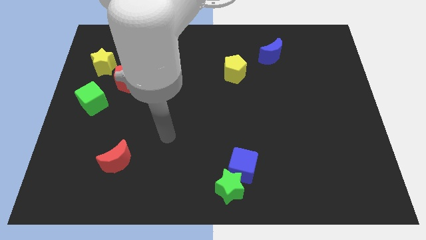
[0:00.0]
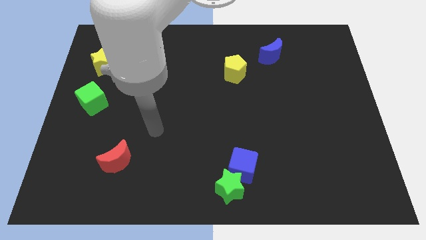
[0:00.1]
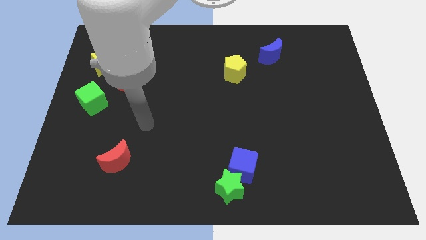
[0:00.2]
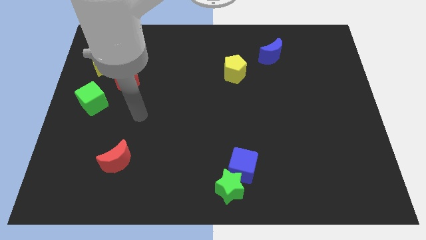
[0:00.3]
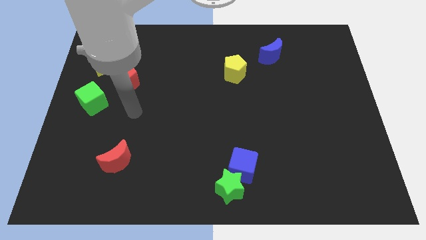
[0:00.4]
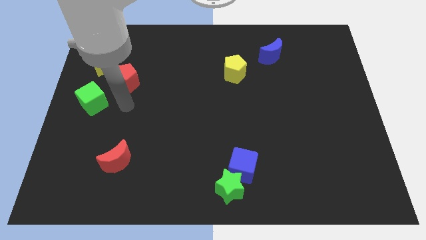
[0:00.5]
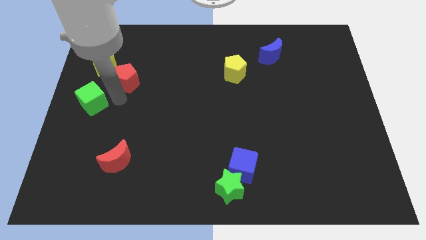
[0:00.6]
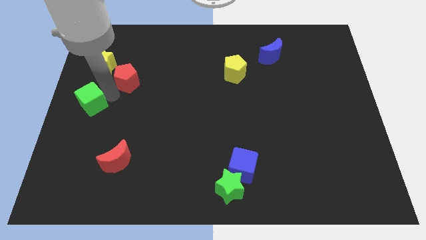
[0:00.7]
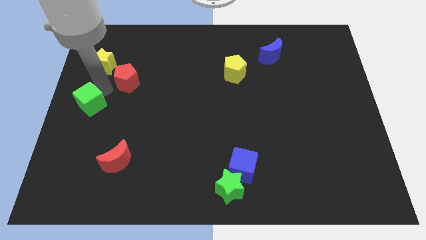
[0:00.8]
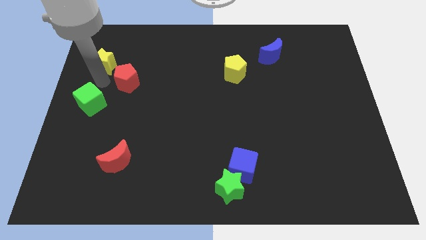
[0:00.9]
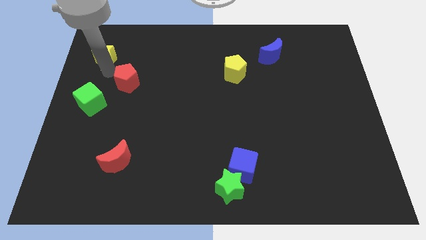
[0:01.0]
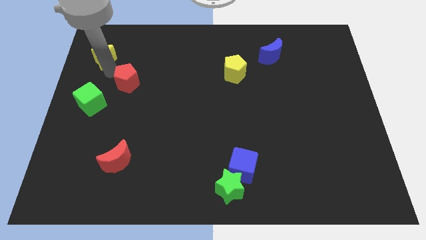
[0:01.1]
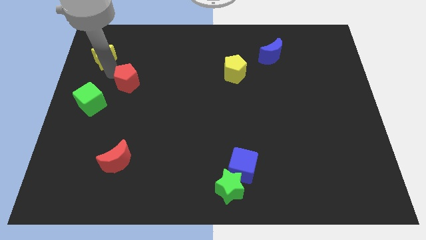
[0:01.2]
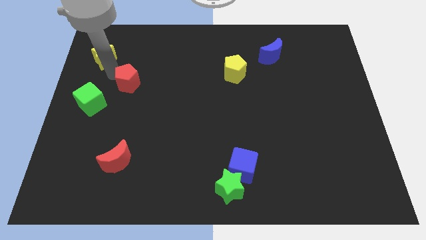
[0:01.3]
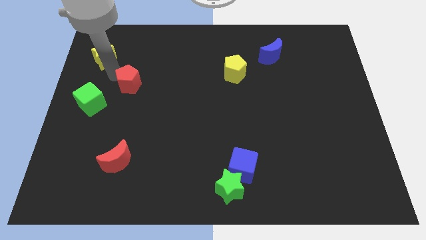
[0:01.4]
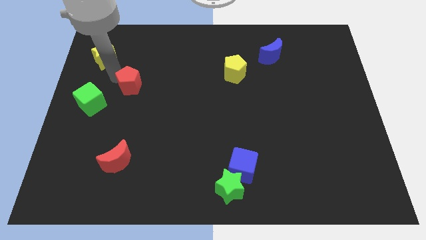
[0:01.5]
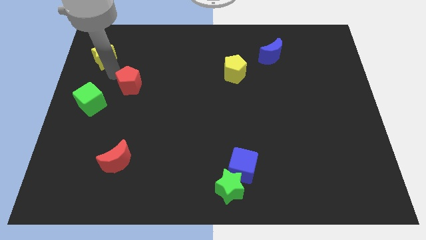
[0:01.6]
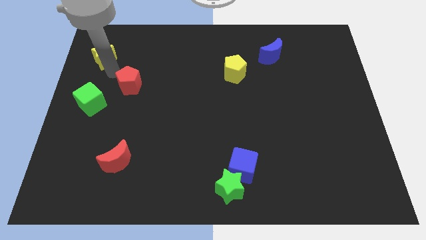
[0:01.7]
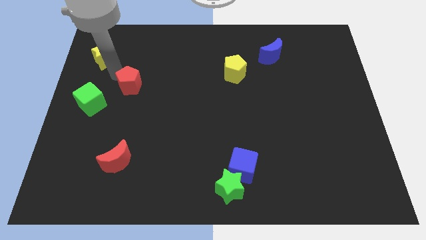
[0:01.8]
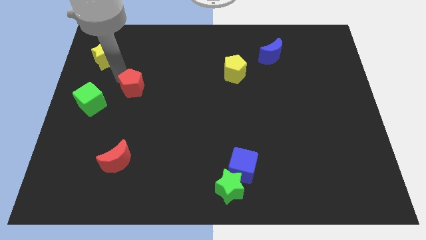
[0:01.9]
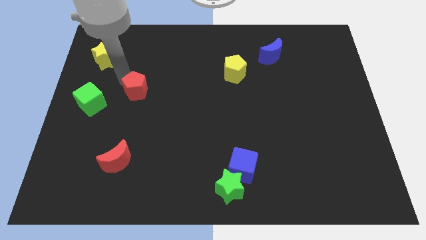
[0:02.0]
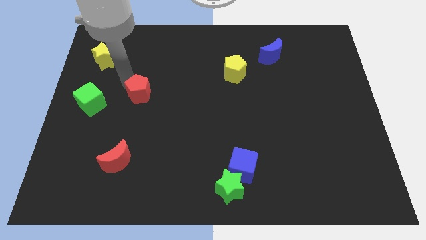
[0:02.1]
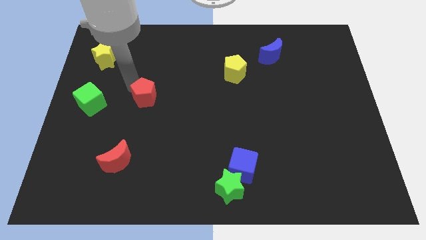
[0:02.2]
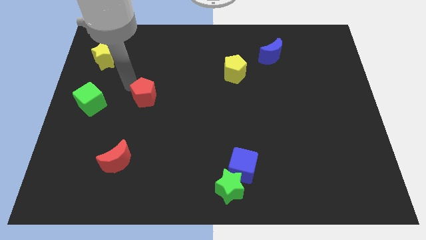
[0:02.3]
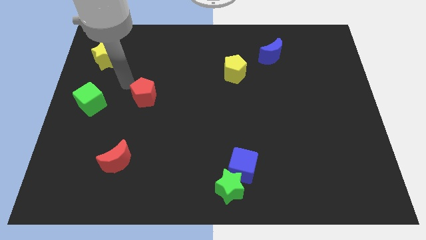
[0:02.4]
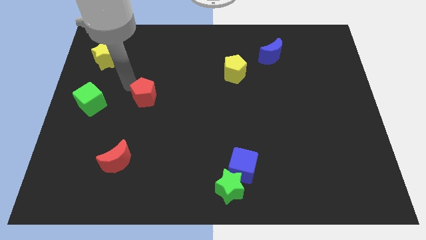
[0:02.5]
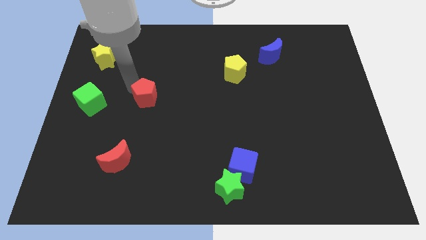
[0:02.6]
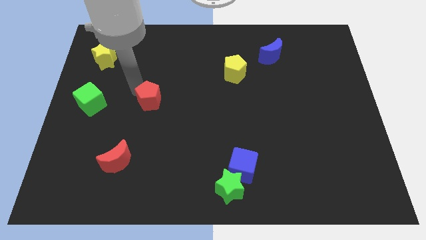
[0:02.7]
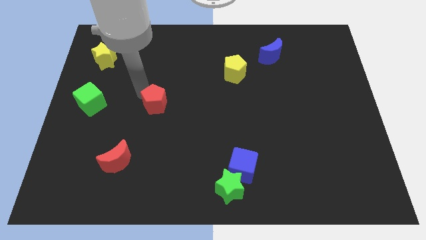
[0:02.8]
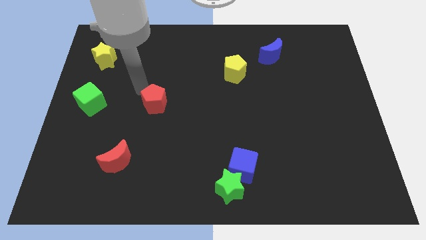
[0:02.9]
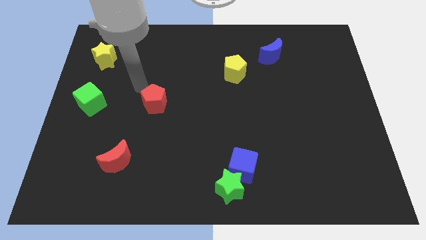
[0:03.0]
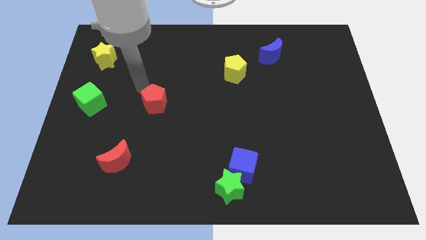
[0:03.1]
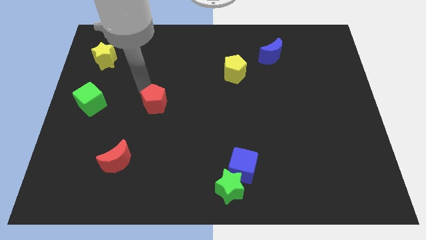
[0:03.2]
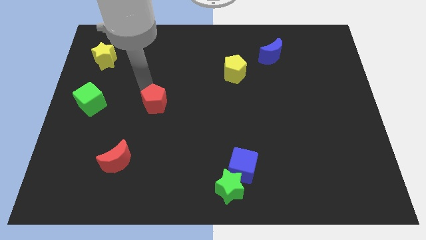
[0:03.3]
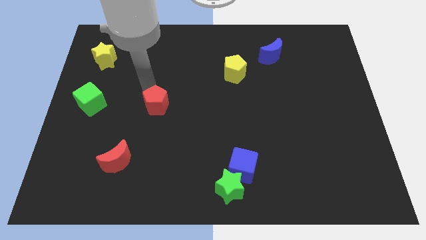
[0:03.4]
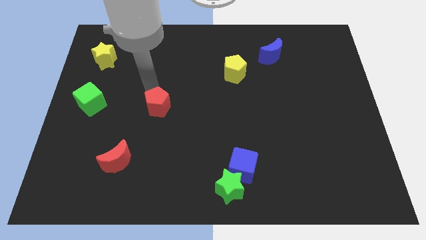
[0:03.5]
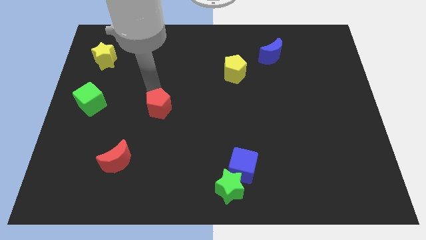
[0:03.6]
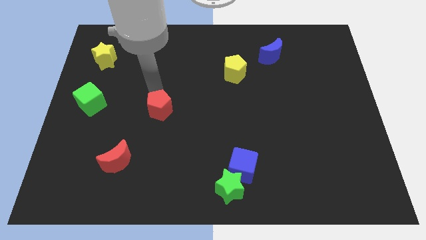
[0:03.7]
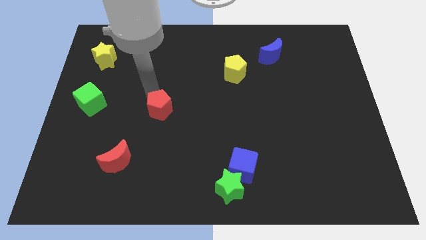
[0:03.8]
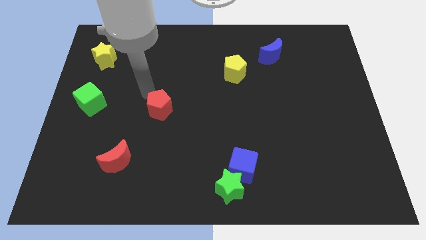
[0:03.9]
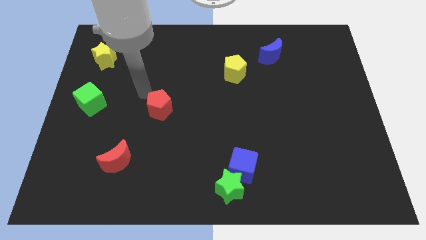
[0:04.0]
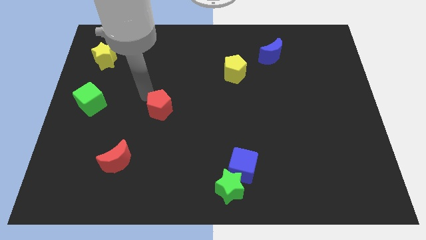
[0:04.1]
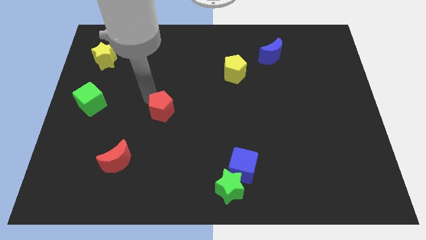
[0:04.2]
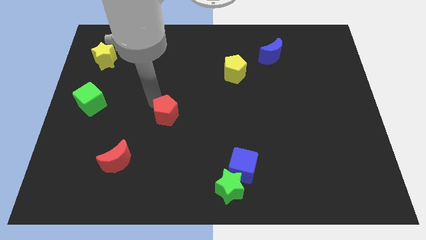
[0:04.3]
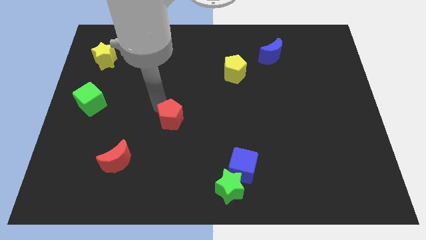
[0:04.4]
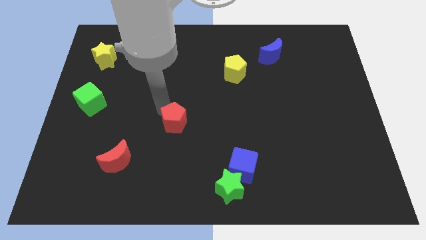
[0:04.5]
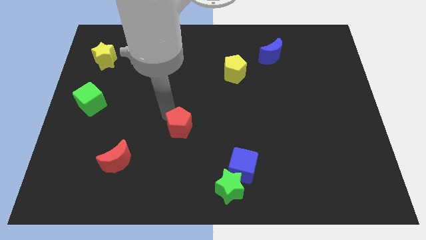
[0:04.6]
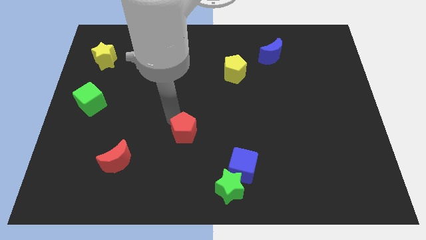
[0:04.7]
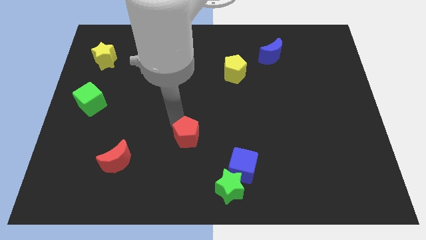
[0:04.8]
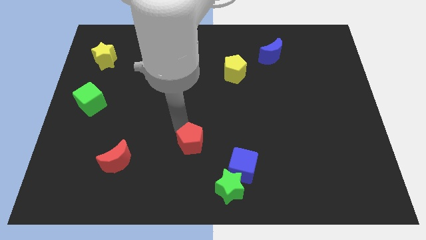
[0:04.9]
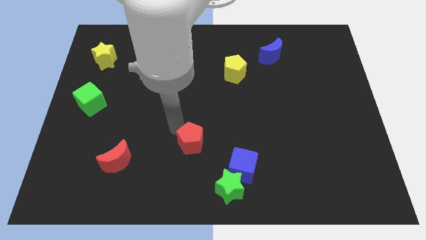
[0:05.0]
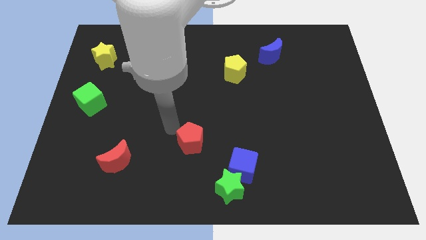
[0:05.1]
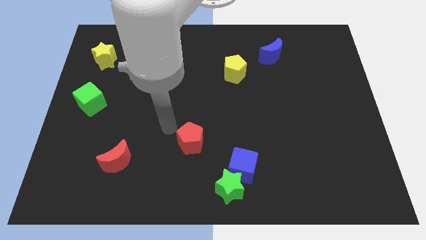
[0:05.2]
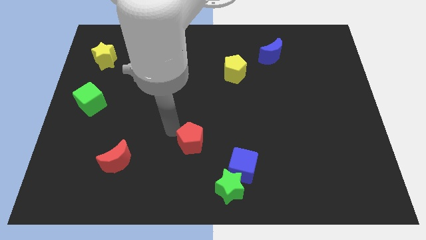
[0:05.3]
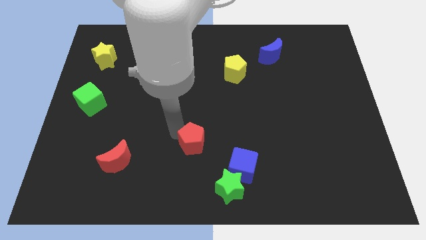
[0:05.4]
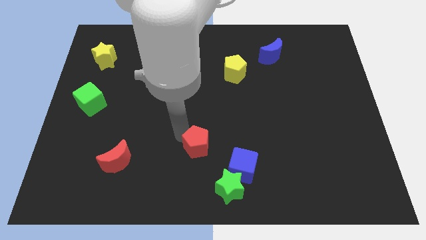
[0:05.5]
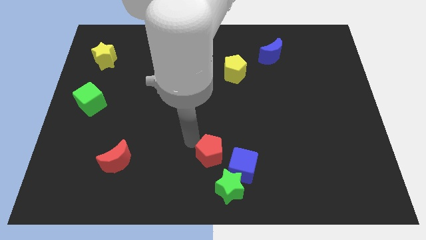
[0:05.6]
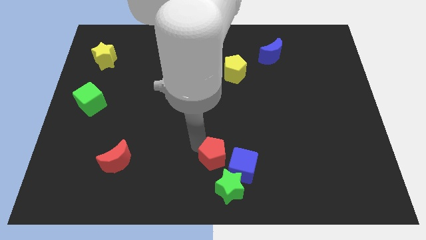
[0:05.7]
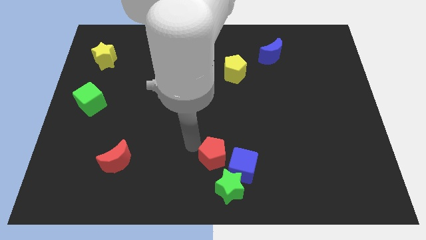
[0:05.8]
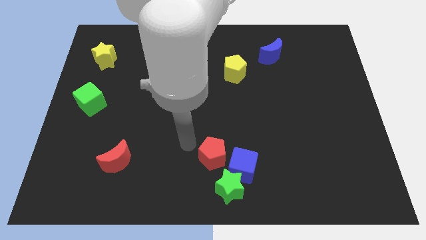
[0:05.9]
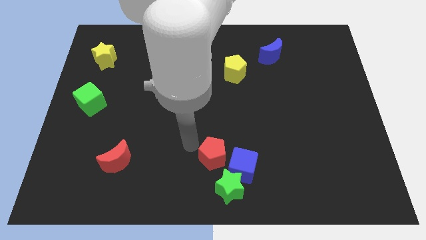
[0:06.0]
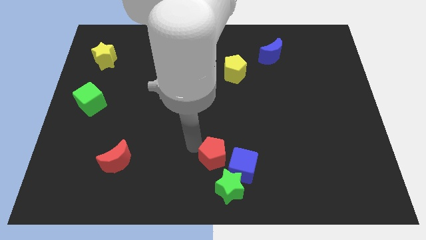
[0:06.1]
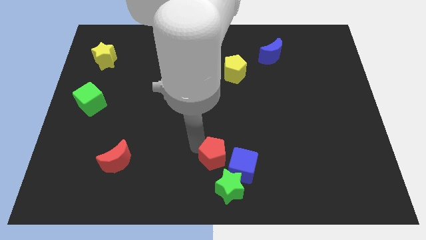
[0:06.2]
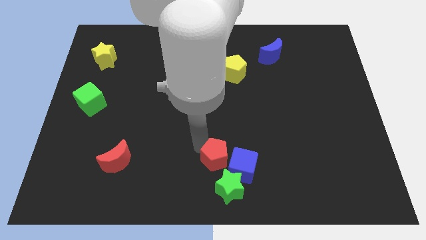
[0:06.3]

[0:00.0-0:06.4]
put the red pentagon close to the blue cube

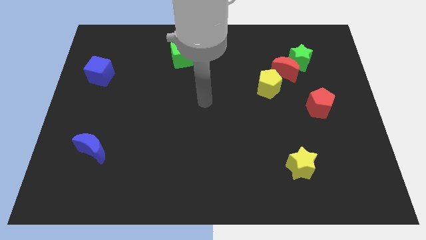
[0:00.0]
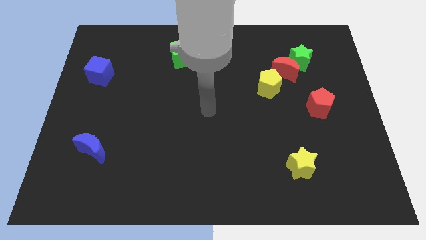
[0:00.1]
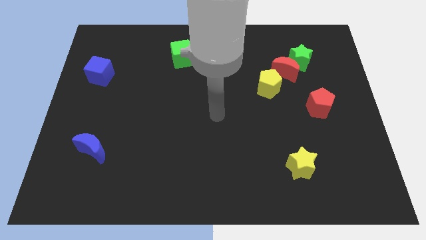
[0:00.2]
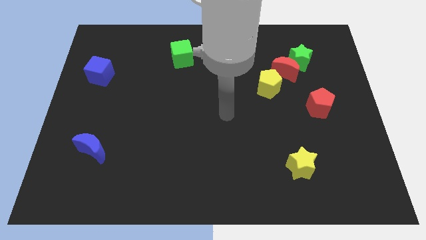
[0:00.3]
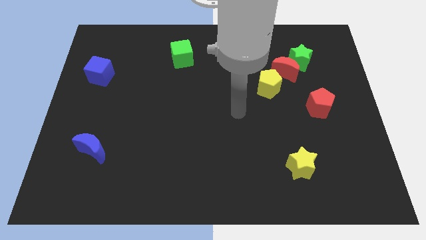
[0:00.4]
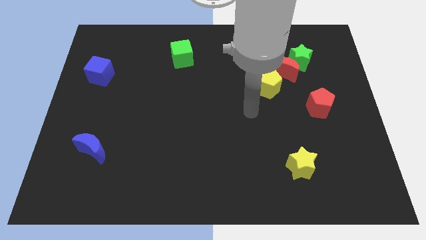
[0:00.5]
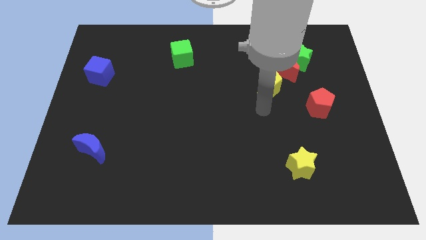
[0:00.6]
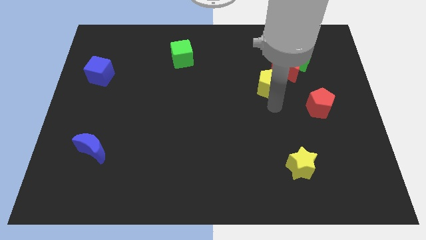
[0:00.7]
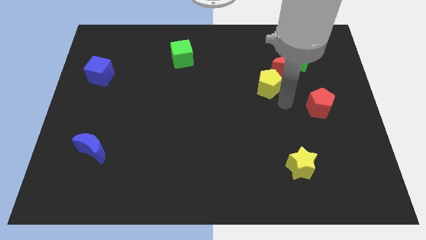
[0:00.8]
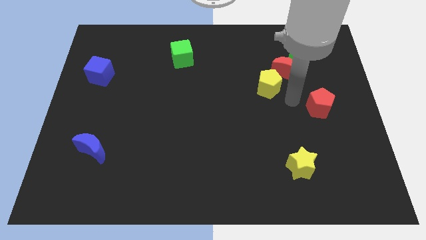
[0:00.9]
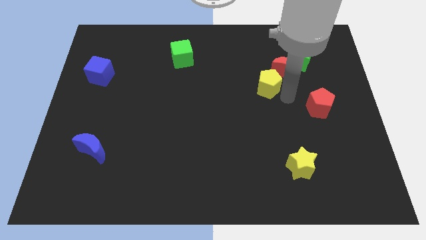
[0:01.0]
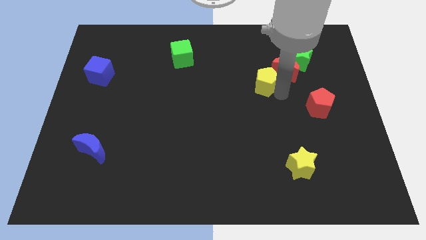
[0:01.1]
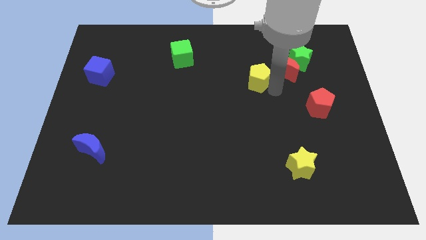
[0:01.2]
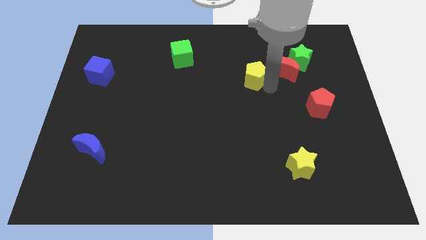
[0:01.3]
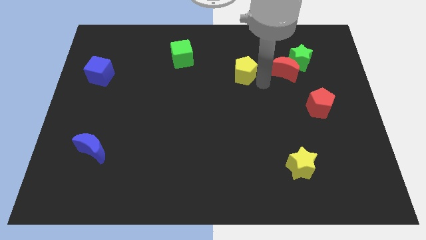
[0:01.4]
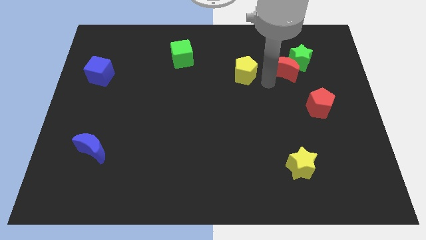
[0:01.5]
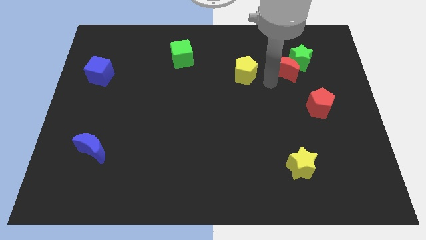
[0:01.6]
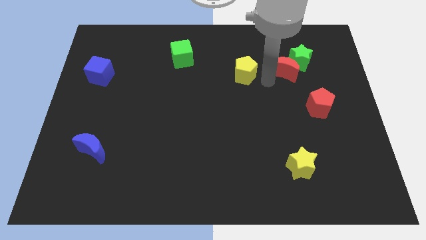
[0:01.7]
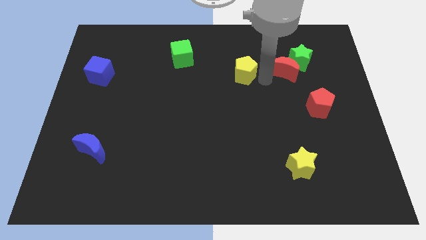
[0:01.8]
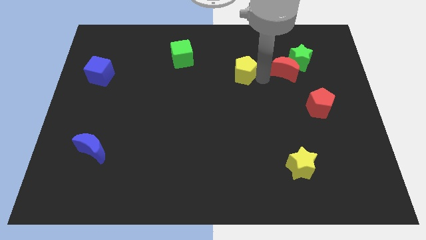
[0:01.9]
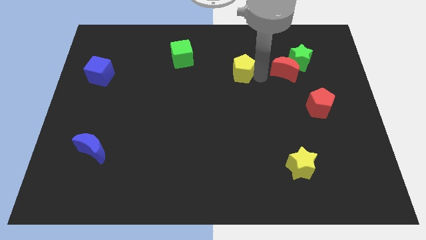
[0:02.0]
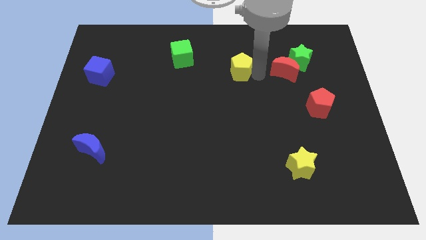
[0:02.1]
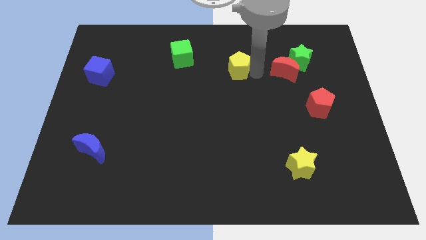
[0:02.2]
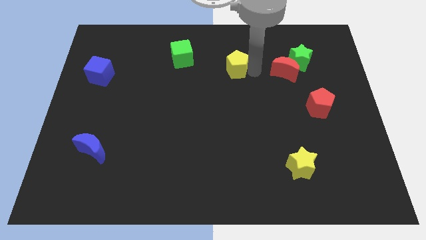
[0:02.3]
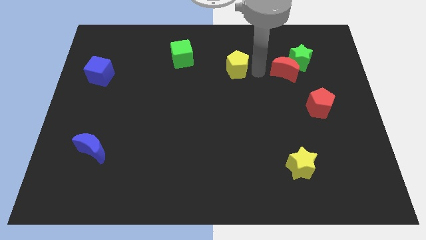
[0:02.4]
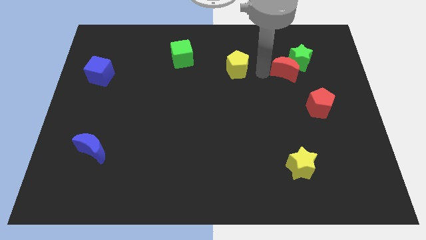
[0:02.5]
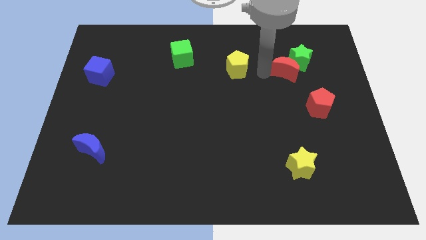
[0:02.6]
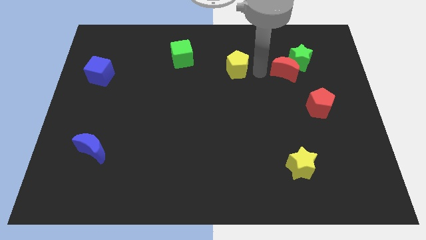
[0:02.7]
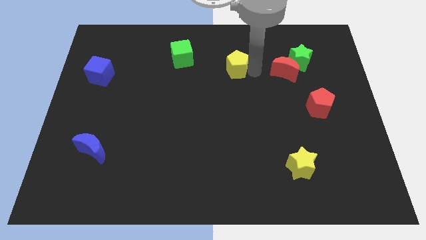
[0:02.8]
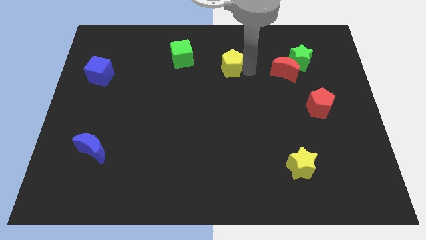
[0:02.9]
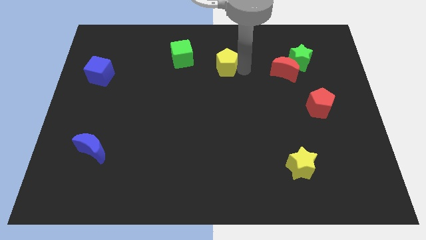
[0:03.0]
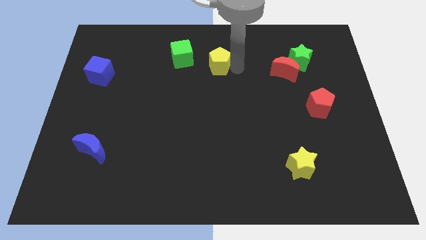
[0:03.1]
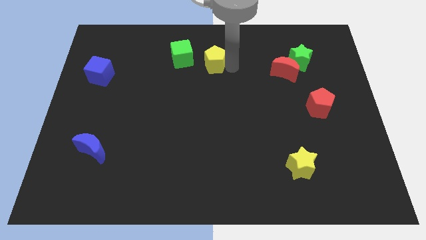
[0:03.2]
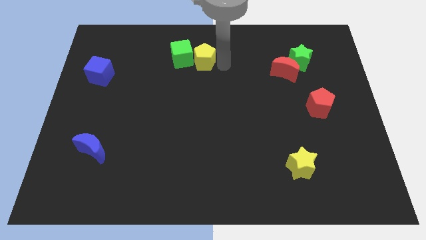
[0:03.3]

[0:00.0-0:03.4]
push the yellow pentagon close to the green cube
